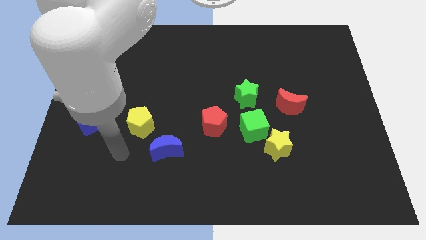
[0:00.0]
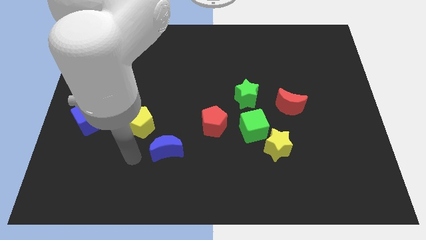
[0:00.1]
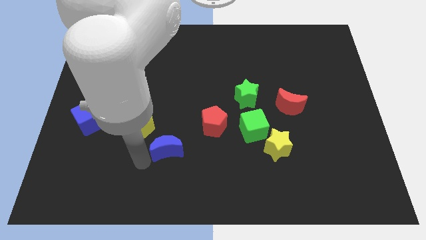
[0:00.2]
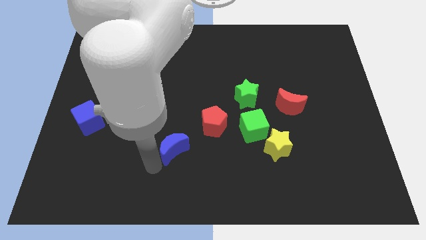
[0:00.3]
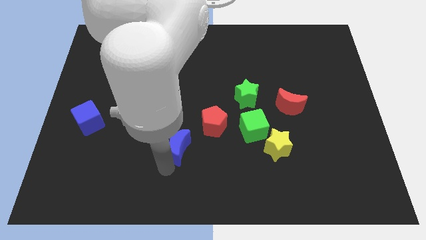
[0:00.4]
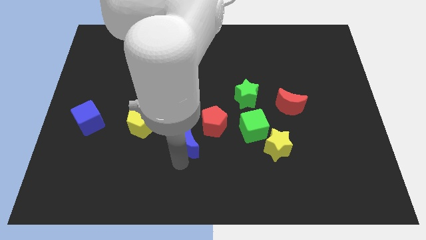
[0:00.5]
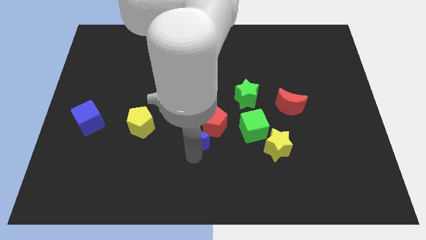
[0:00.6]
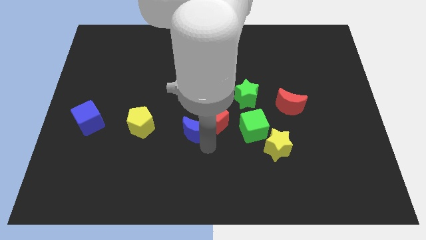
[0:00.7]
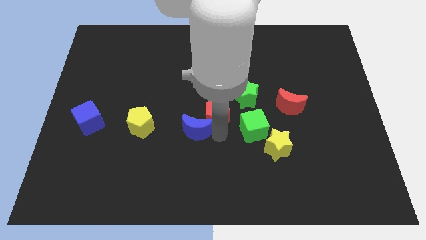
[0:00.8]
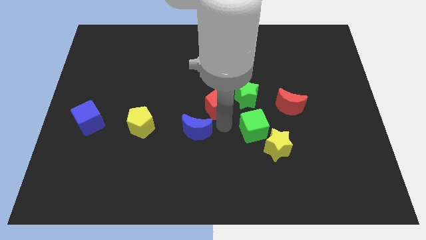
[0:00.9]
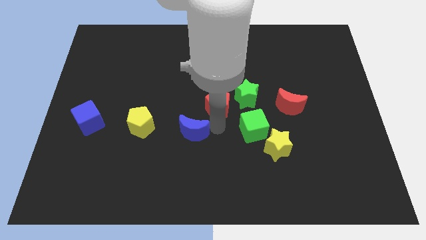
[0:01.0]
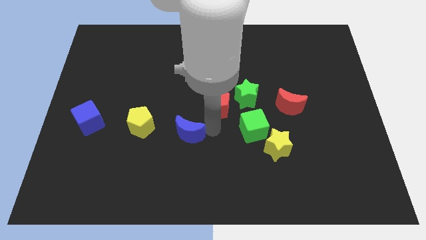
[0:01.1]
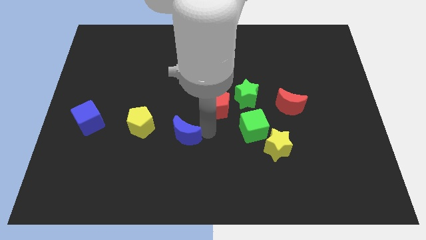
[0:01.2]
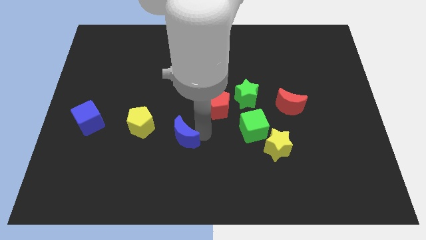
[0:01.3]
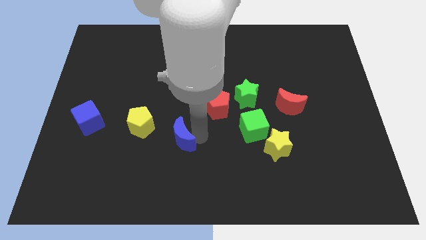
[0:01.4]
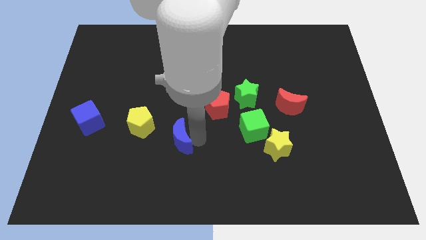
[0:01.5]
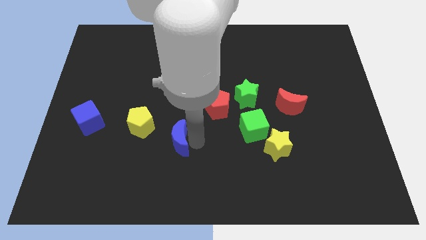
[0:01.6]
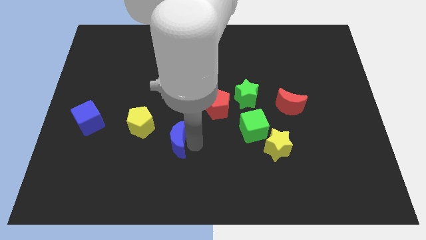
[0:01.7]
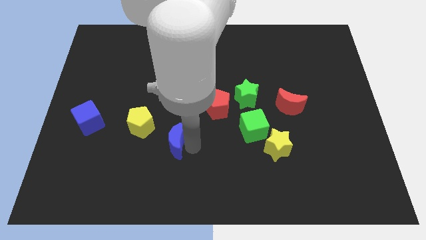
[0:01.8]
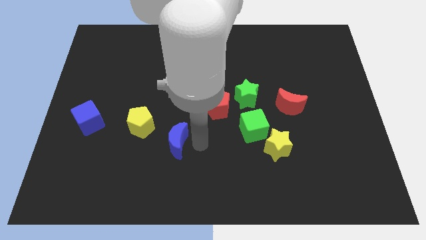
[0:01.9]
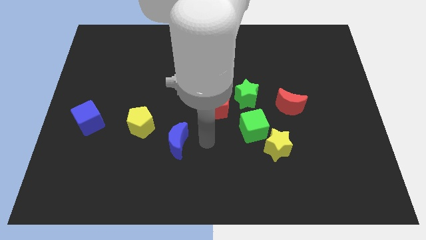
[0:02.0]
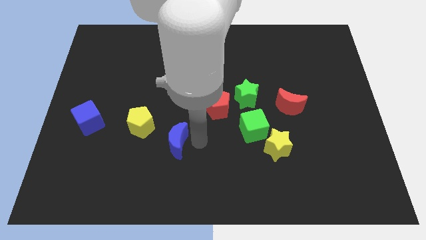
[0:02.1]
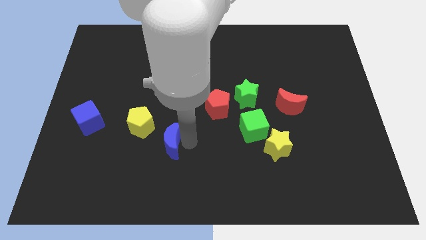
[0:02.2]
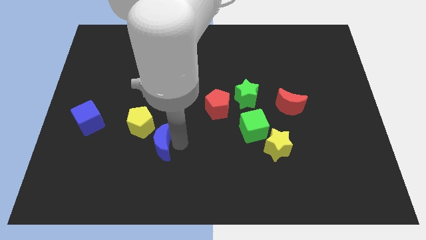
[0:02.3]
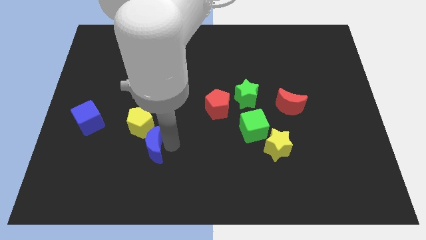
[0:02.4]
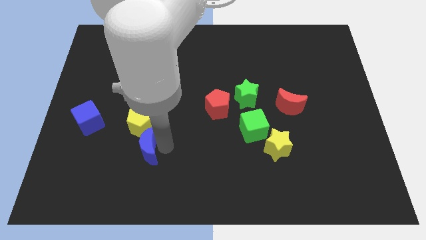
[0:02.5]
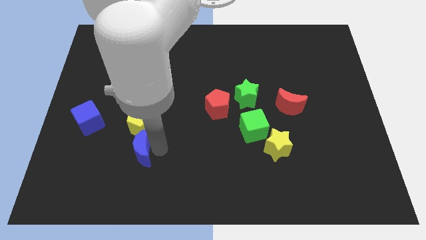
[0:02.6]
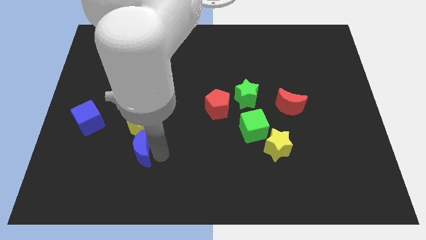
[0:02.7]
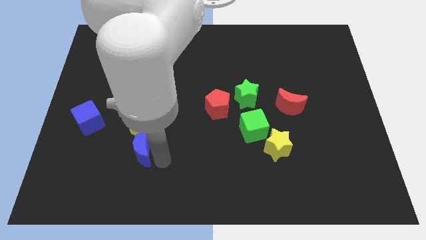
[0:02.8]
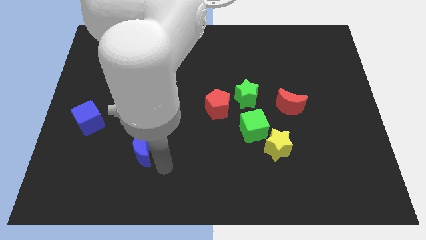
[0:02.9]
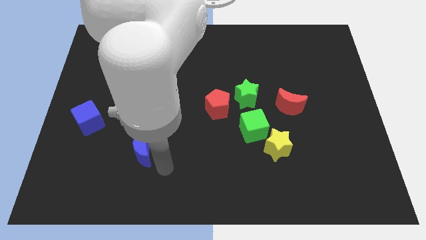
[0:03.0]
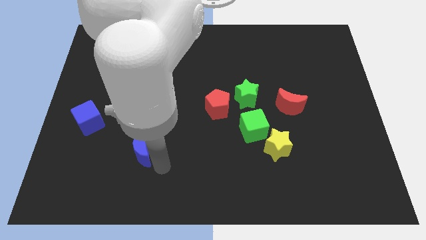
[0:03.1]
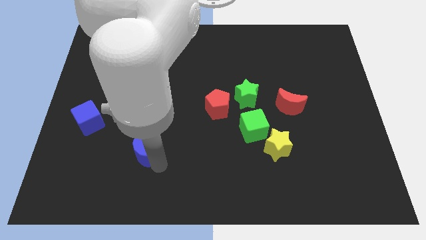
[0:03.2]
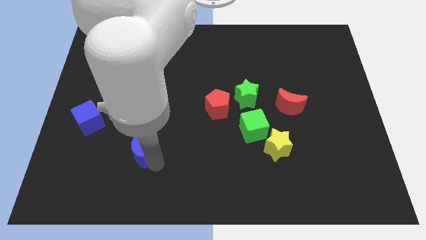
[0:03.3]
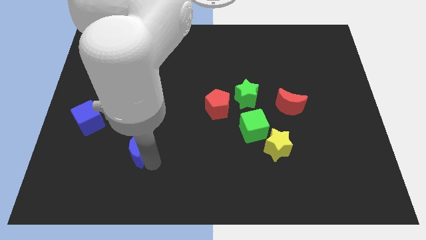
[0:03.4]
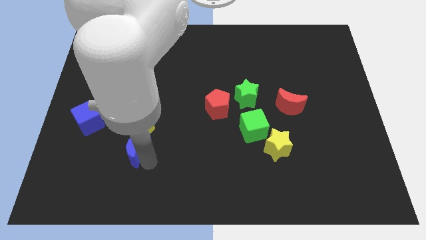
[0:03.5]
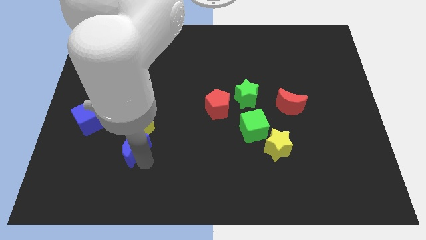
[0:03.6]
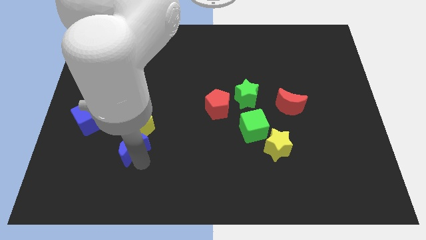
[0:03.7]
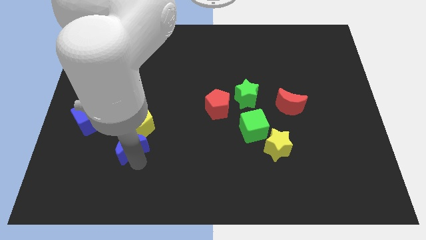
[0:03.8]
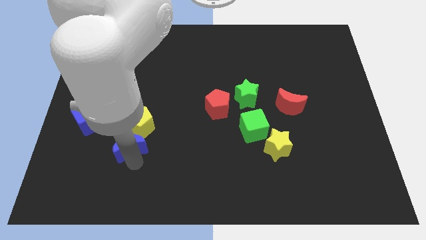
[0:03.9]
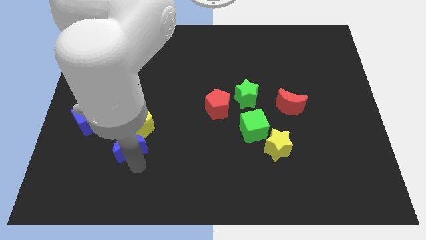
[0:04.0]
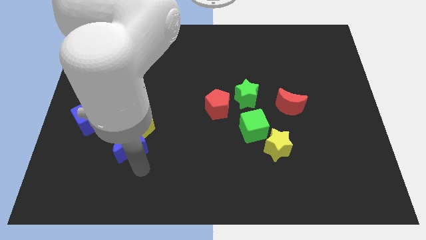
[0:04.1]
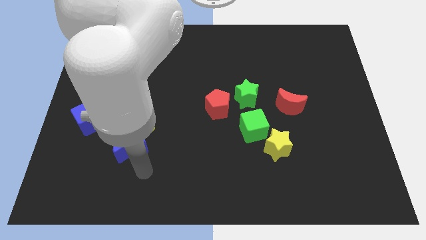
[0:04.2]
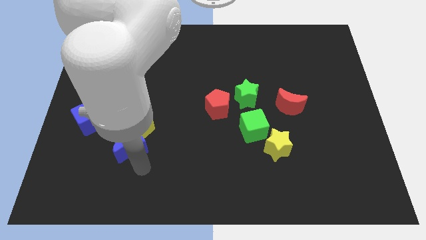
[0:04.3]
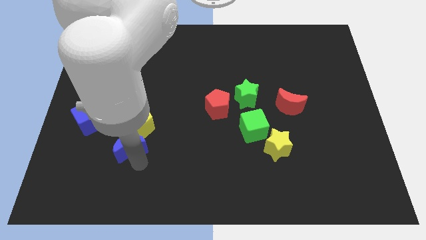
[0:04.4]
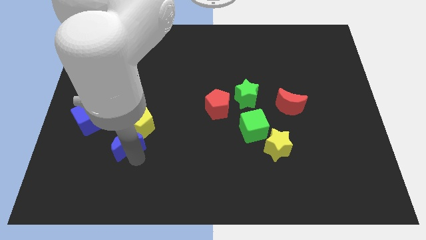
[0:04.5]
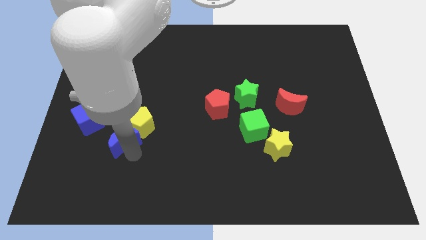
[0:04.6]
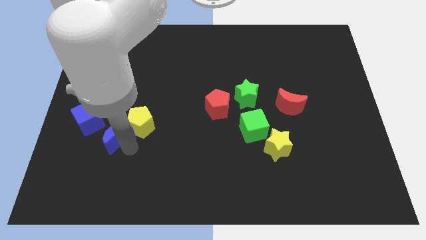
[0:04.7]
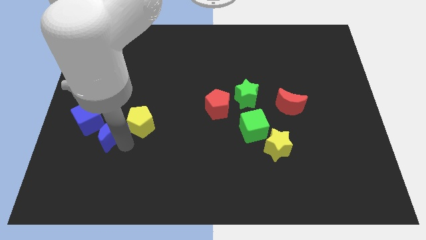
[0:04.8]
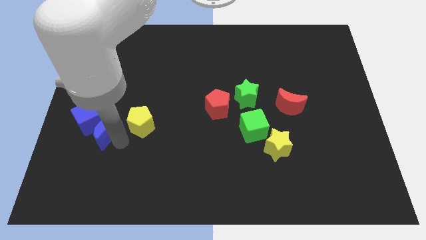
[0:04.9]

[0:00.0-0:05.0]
push the blue moon to the blue cube

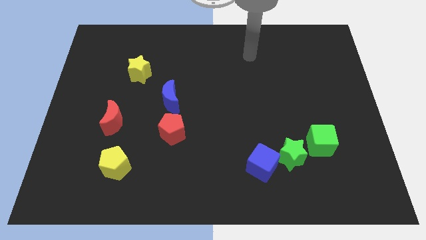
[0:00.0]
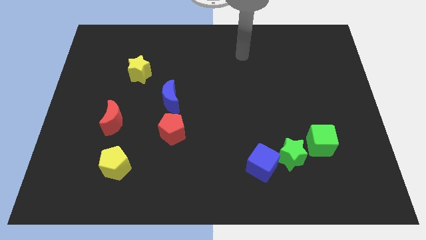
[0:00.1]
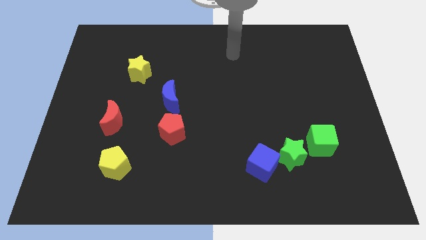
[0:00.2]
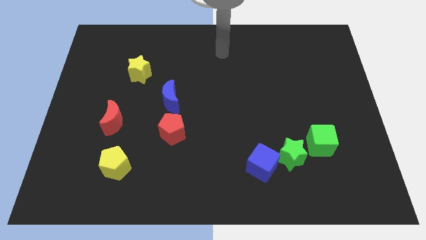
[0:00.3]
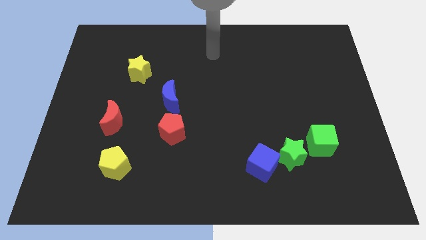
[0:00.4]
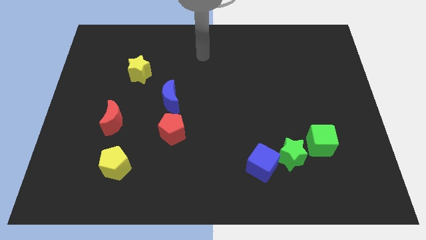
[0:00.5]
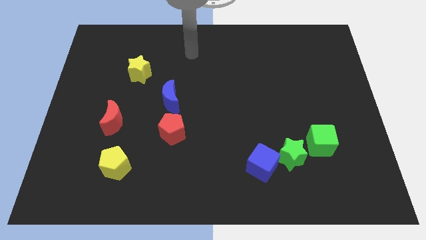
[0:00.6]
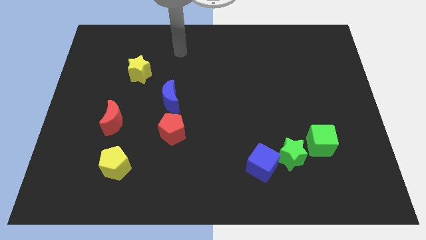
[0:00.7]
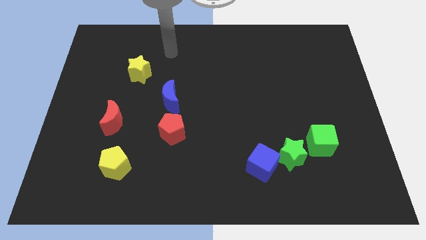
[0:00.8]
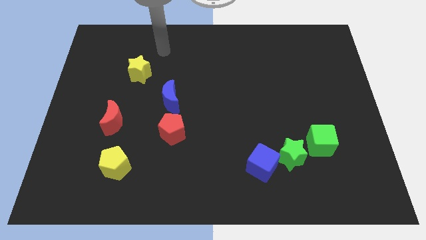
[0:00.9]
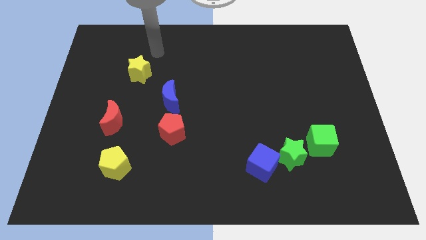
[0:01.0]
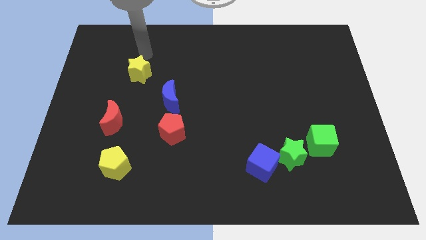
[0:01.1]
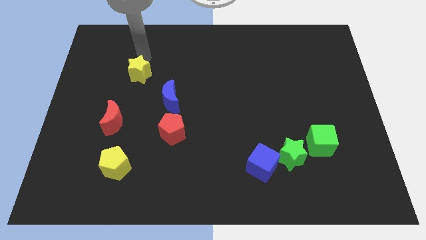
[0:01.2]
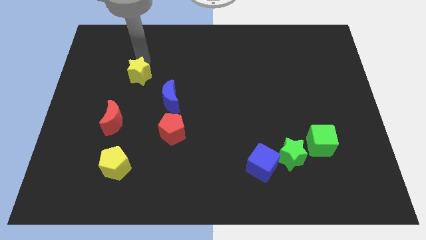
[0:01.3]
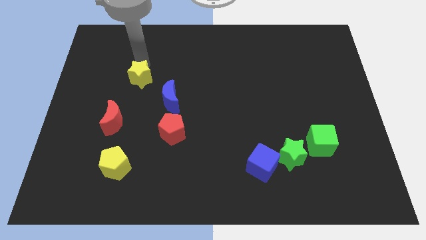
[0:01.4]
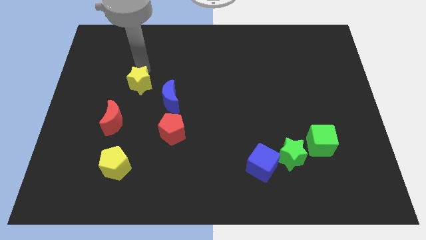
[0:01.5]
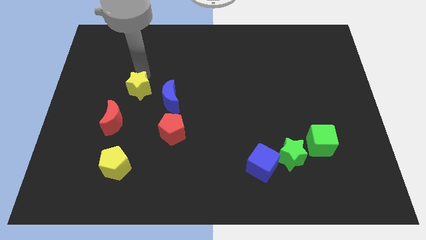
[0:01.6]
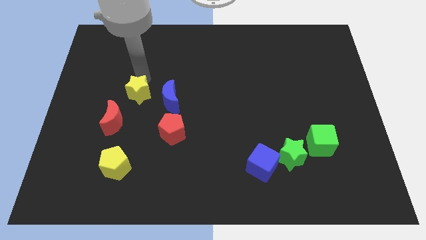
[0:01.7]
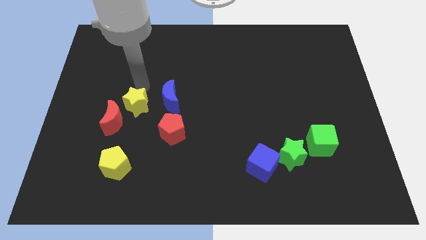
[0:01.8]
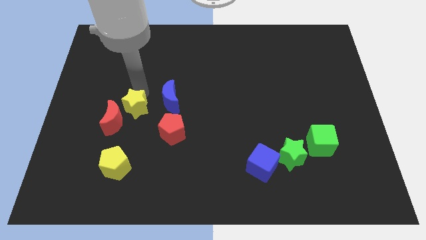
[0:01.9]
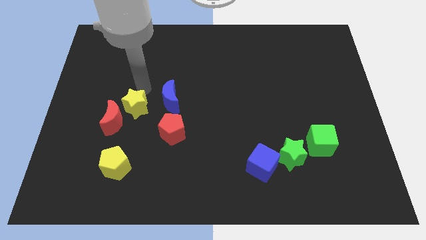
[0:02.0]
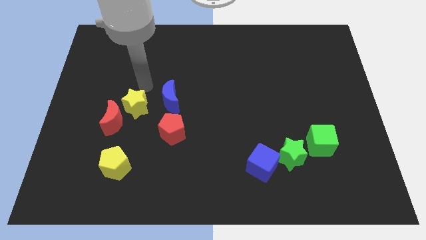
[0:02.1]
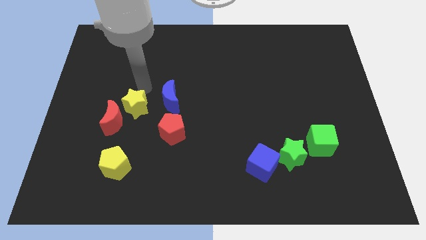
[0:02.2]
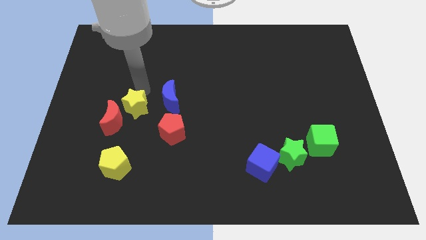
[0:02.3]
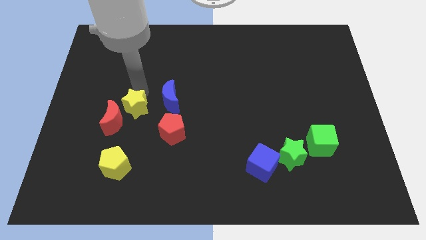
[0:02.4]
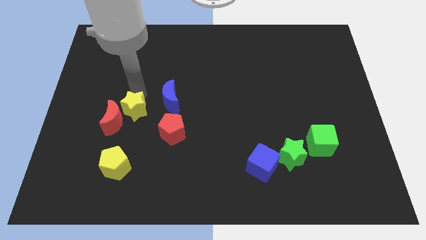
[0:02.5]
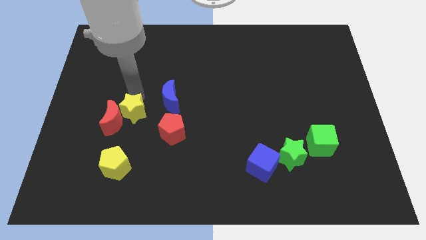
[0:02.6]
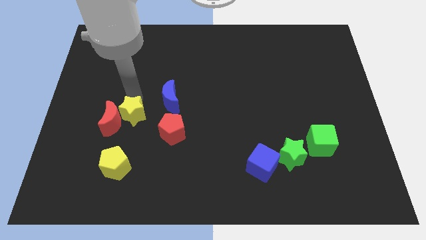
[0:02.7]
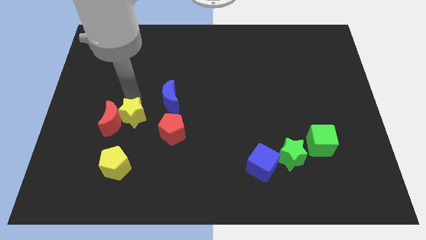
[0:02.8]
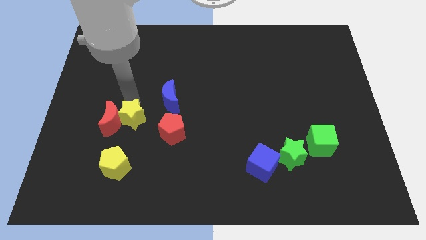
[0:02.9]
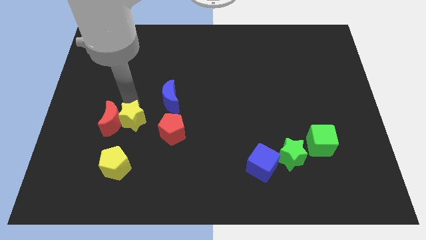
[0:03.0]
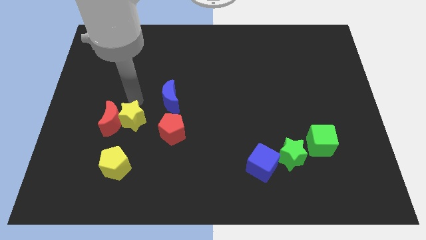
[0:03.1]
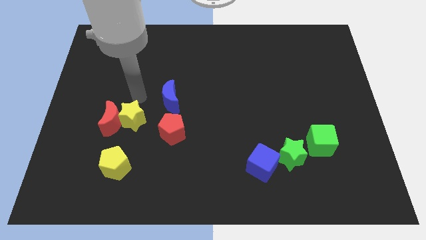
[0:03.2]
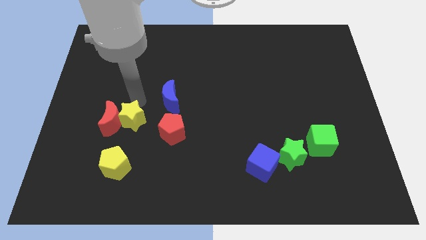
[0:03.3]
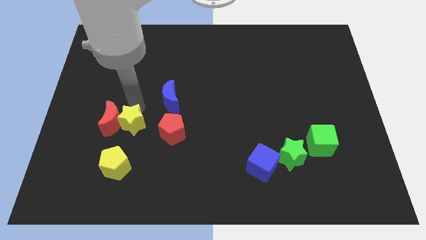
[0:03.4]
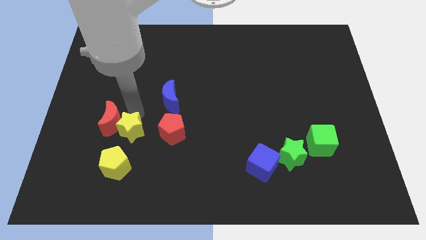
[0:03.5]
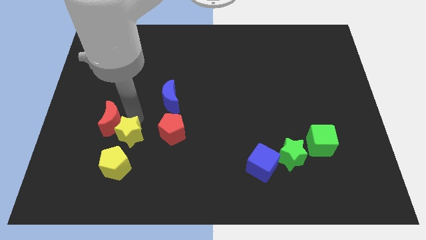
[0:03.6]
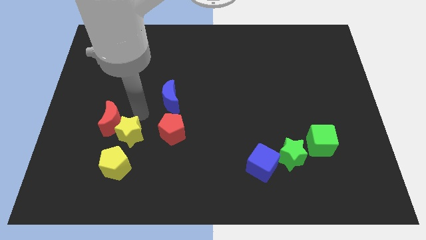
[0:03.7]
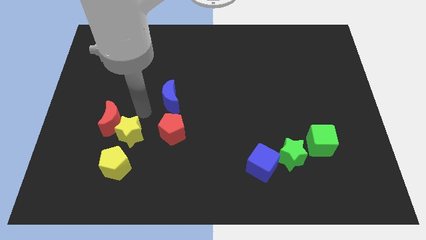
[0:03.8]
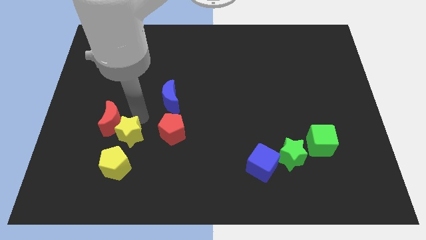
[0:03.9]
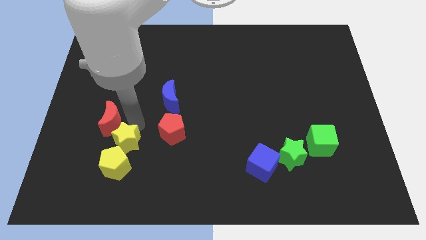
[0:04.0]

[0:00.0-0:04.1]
slide the yellow star next to the yellow pentagon
